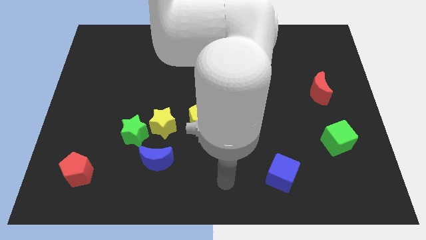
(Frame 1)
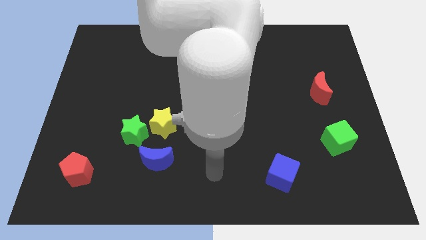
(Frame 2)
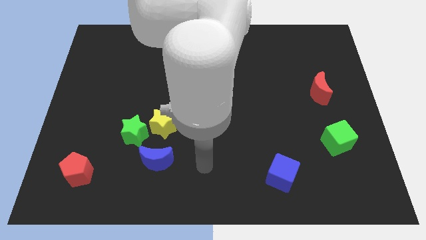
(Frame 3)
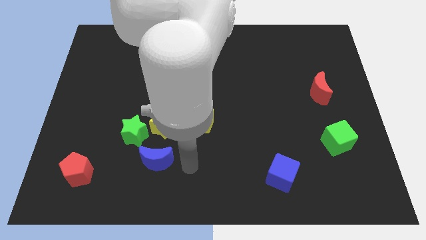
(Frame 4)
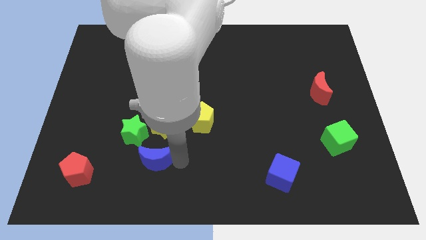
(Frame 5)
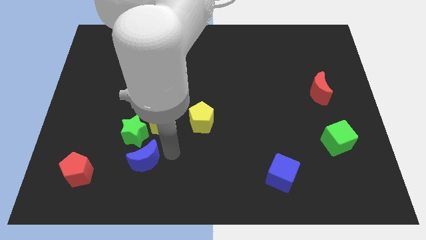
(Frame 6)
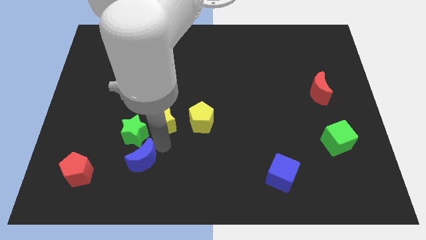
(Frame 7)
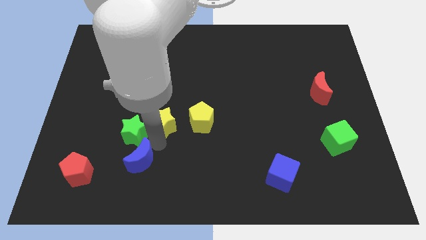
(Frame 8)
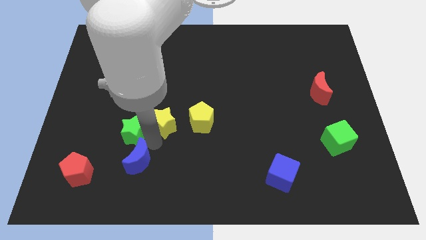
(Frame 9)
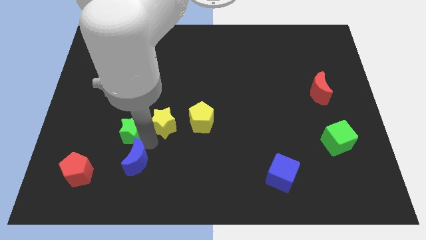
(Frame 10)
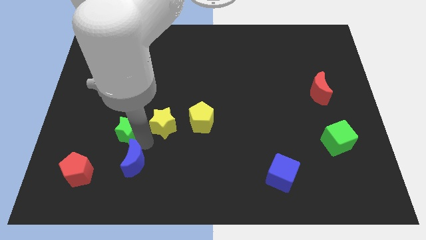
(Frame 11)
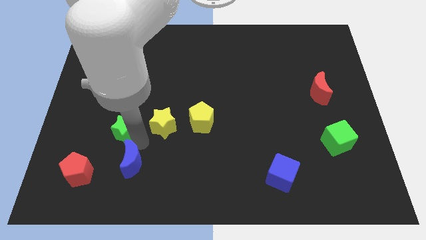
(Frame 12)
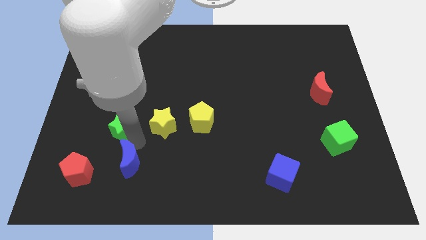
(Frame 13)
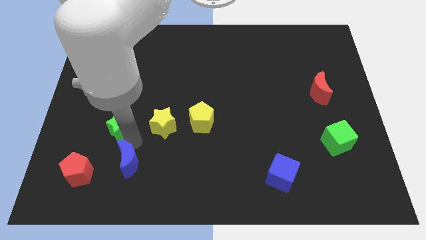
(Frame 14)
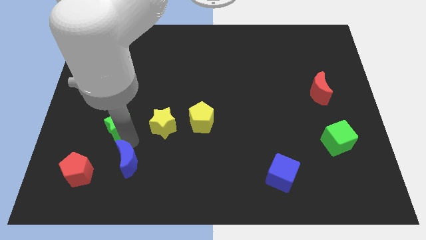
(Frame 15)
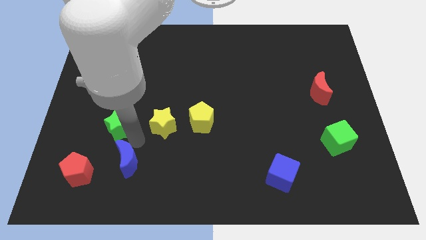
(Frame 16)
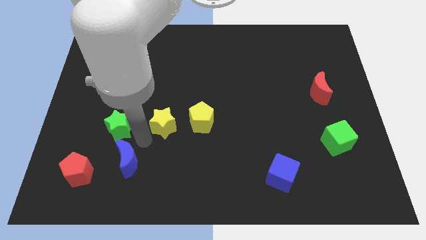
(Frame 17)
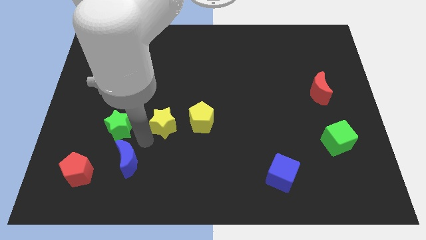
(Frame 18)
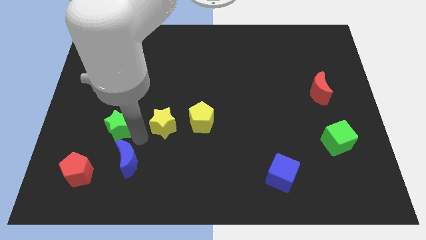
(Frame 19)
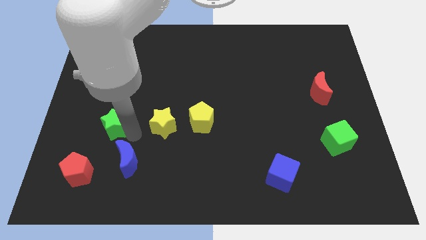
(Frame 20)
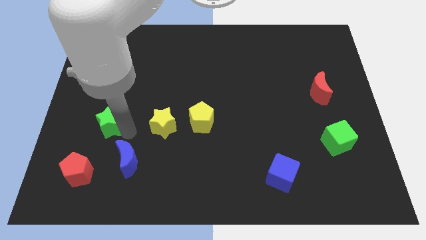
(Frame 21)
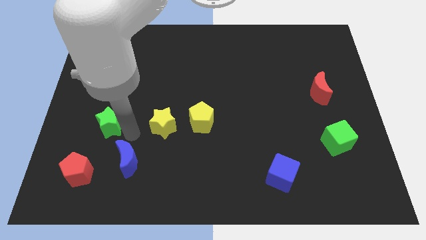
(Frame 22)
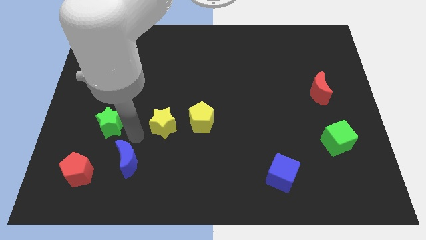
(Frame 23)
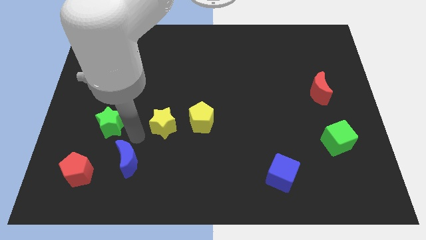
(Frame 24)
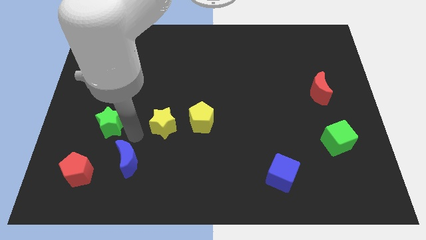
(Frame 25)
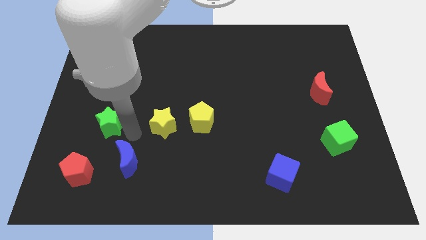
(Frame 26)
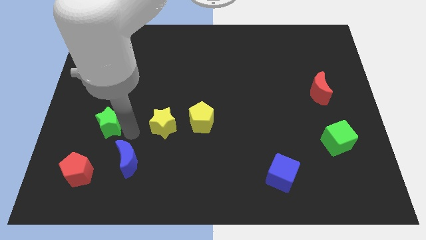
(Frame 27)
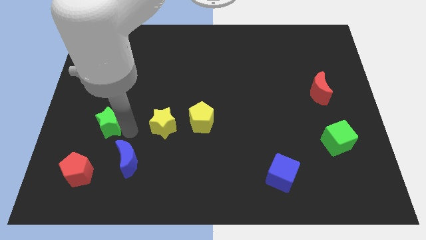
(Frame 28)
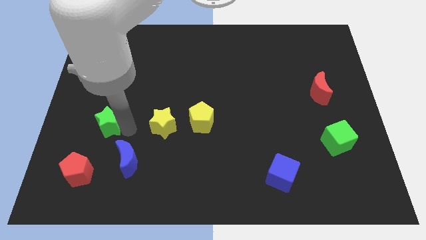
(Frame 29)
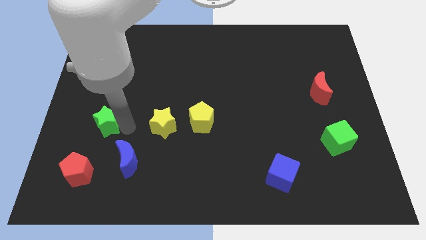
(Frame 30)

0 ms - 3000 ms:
separate the green star from the yellow star and blue moon

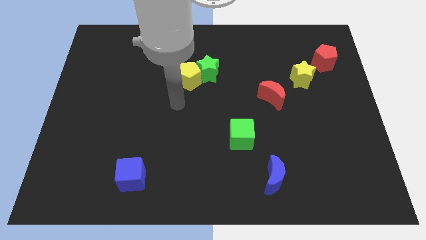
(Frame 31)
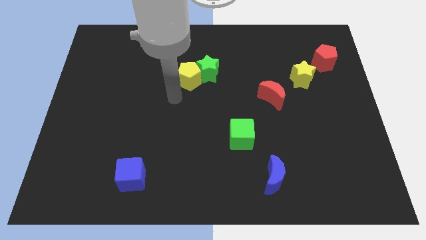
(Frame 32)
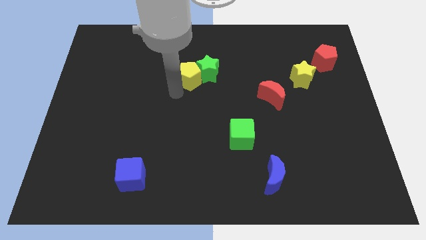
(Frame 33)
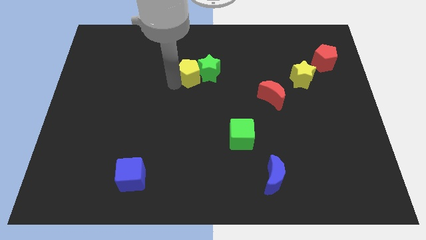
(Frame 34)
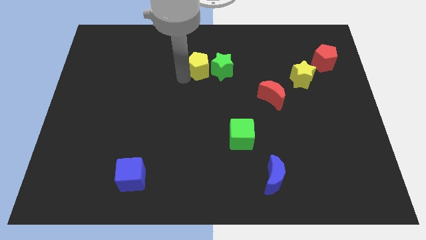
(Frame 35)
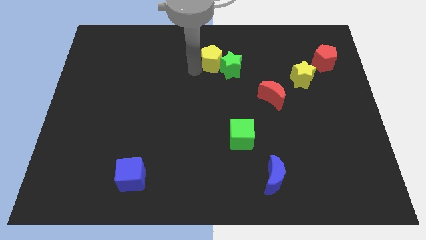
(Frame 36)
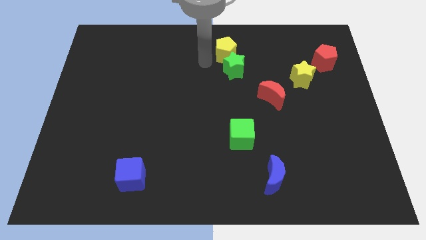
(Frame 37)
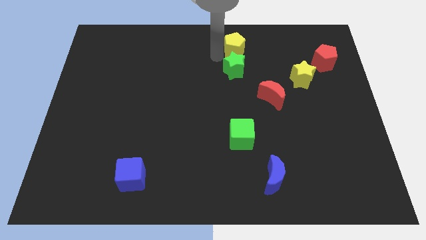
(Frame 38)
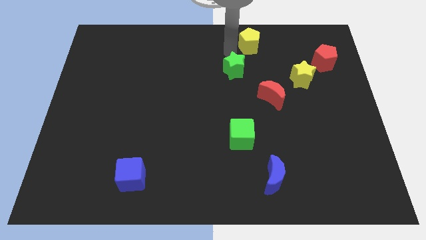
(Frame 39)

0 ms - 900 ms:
separate the green star from the yellow pentagon

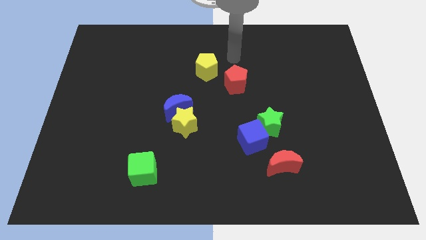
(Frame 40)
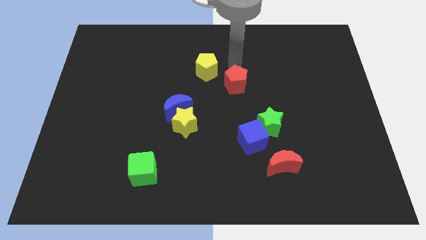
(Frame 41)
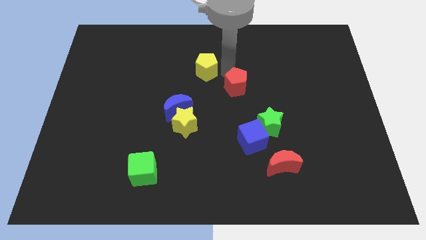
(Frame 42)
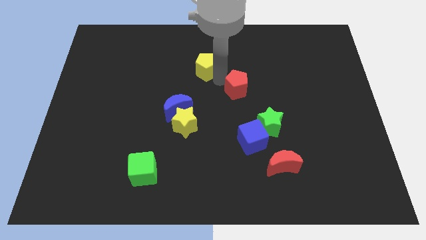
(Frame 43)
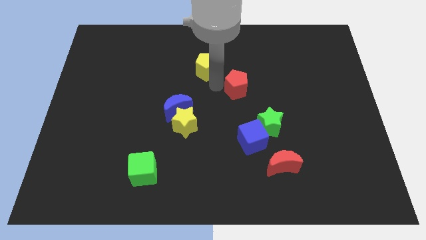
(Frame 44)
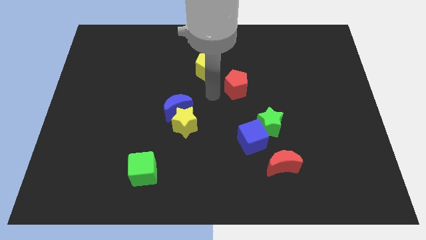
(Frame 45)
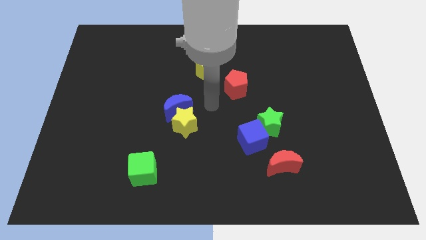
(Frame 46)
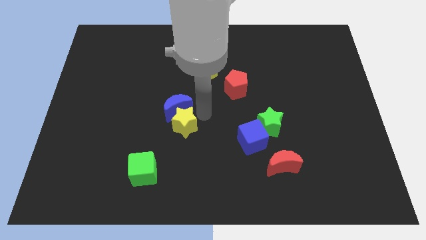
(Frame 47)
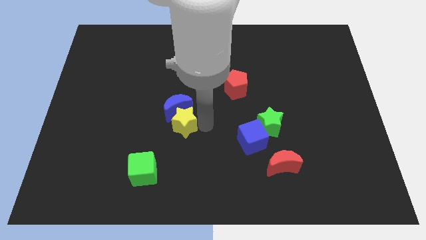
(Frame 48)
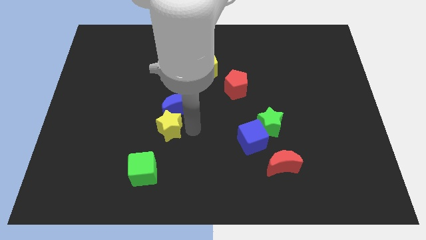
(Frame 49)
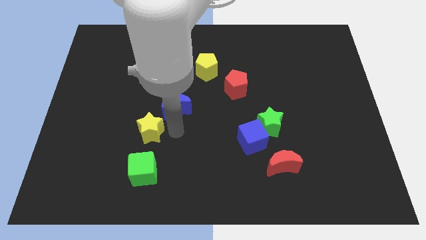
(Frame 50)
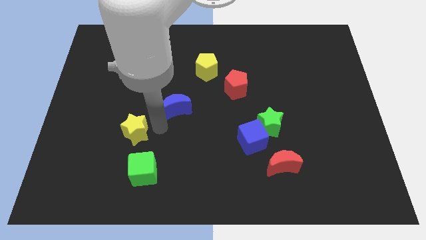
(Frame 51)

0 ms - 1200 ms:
move the blue moon away from the yellow star

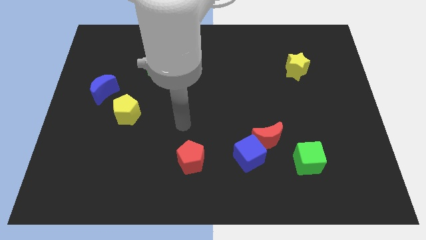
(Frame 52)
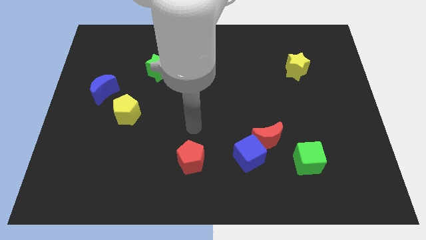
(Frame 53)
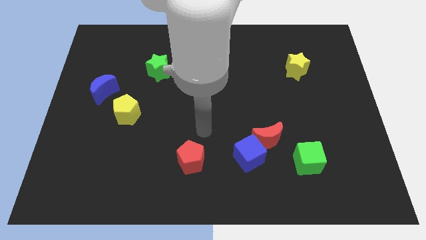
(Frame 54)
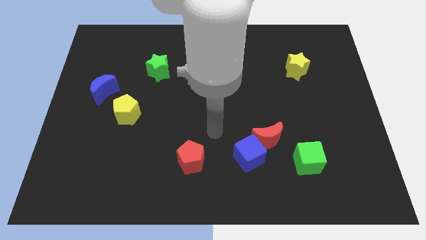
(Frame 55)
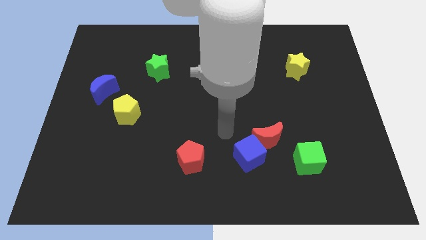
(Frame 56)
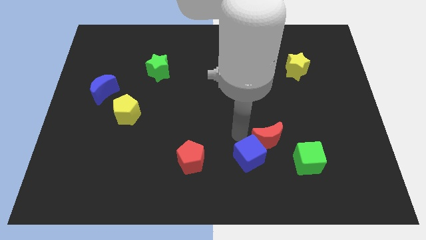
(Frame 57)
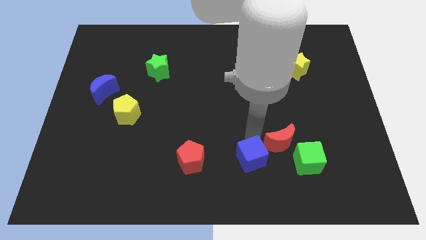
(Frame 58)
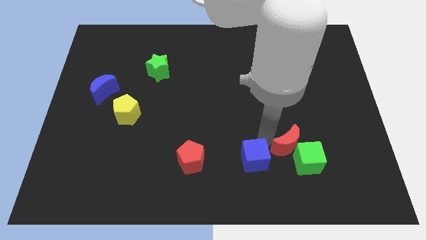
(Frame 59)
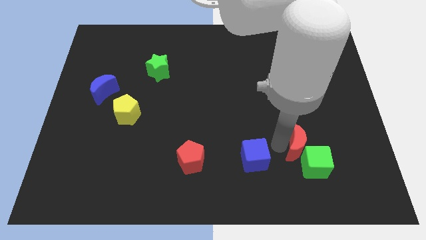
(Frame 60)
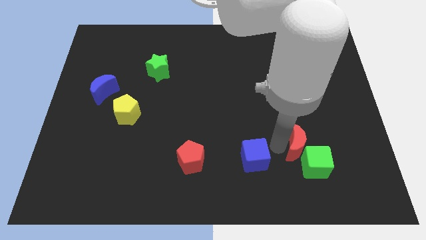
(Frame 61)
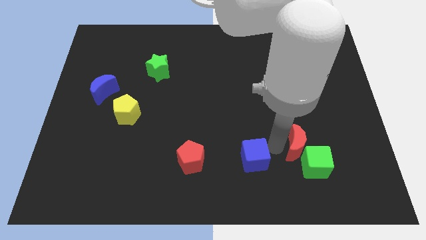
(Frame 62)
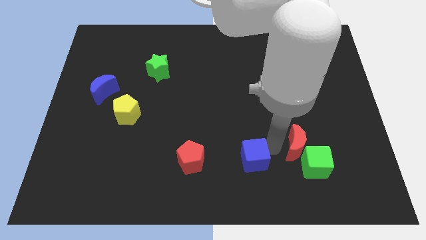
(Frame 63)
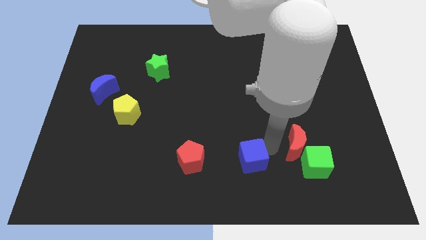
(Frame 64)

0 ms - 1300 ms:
separate the blue cube from the red moon

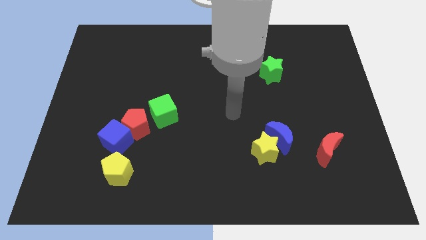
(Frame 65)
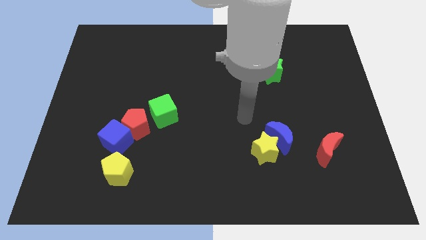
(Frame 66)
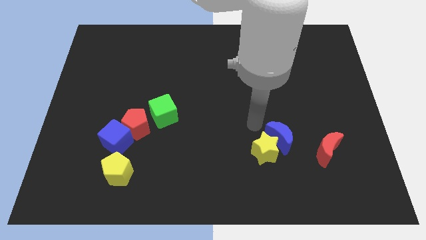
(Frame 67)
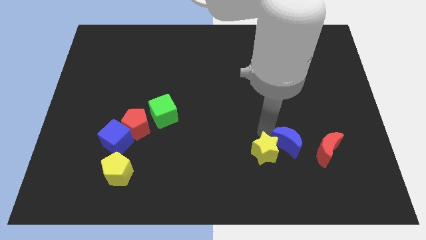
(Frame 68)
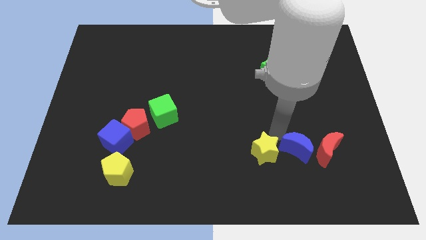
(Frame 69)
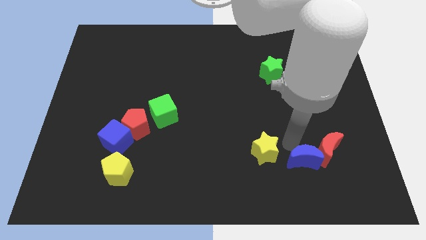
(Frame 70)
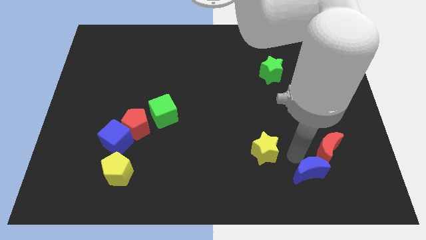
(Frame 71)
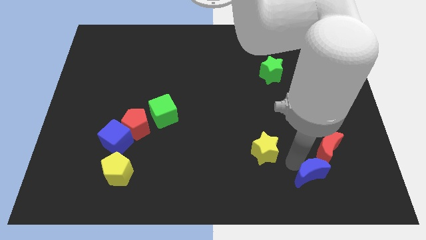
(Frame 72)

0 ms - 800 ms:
pull the yellow star apart from the blue moon

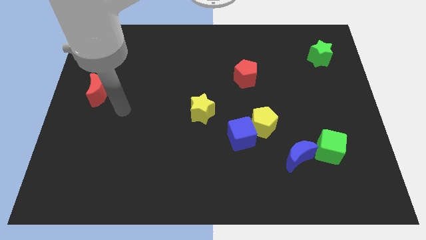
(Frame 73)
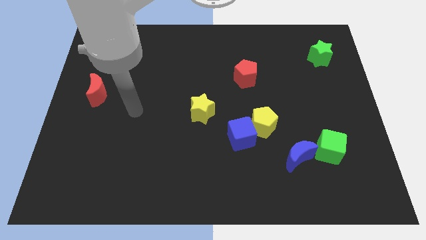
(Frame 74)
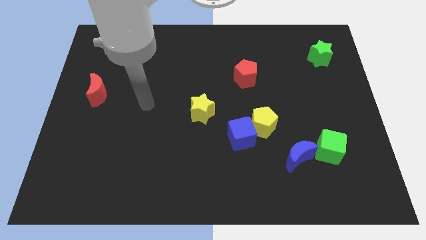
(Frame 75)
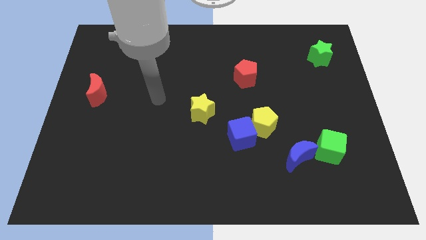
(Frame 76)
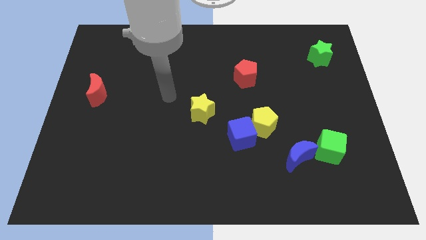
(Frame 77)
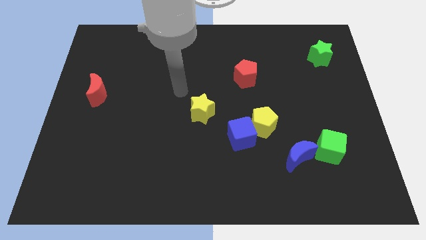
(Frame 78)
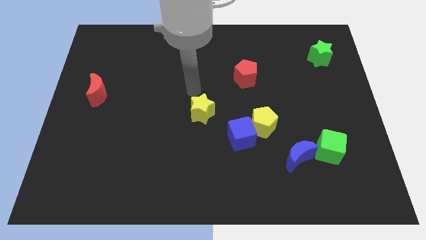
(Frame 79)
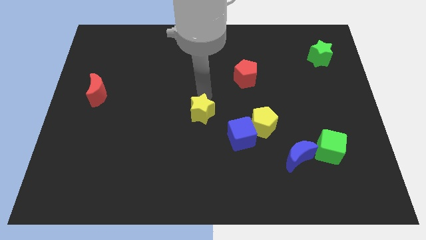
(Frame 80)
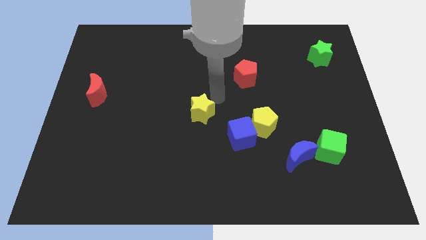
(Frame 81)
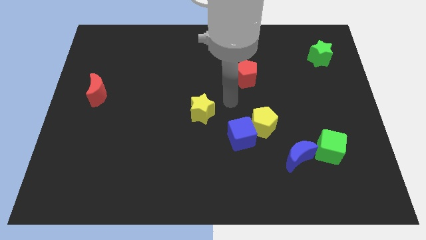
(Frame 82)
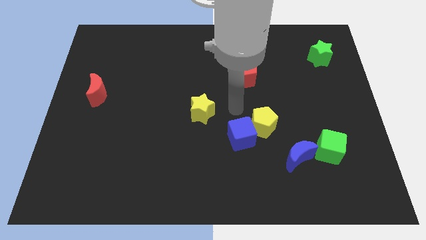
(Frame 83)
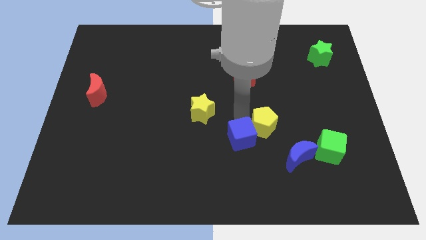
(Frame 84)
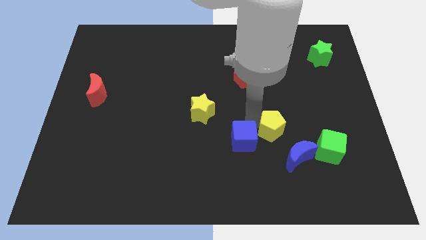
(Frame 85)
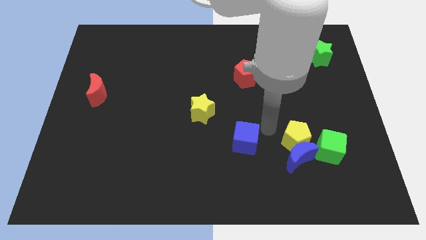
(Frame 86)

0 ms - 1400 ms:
separate the blue cube from the yellow pentagon

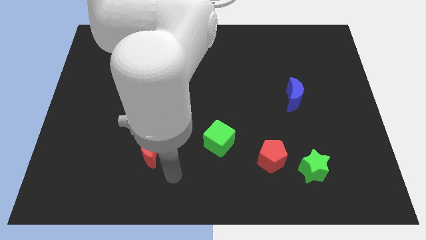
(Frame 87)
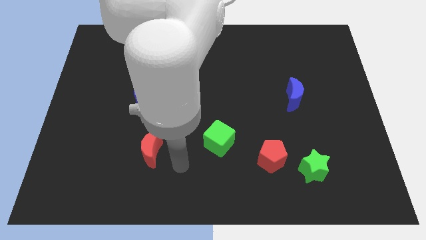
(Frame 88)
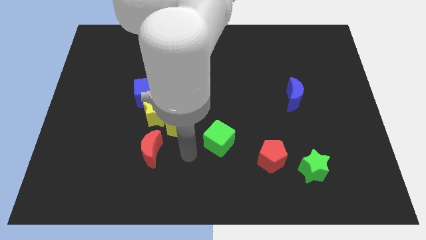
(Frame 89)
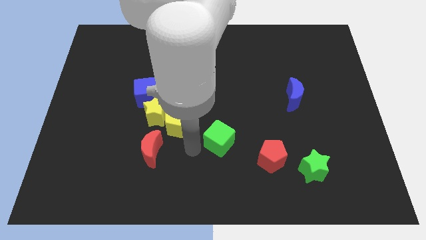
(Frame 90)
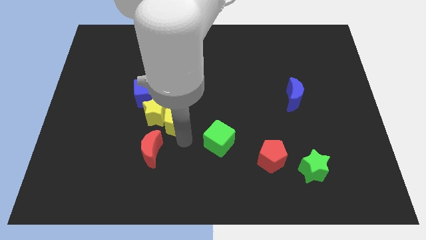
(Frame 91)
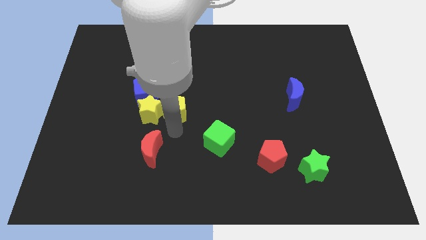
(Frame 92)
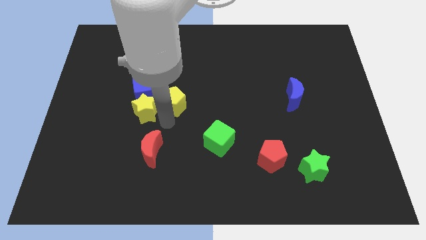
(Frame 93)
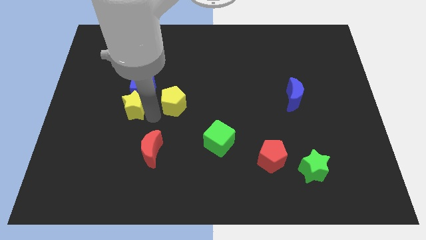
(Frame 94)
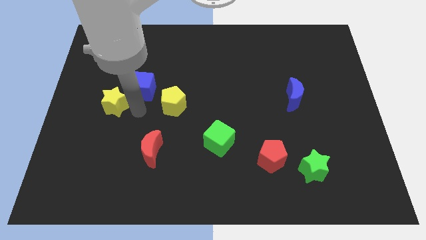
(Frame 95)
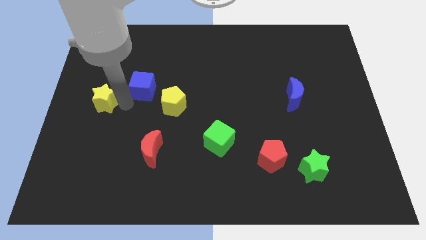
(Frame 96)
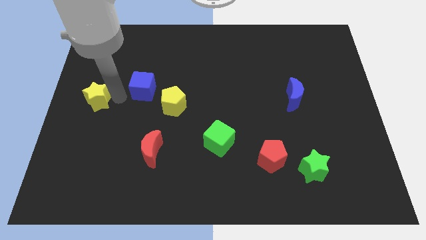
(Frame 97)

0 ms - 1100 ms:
pull the blue cube apart from the yellow star
